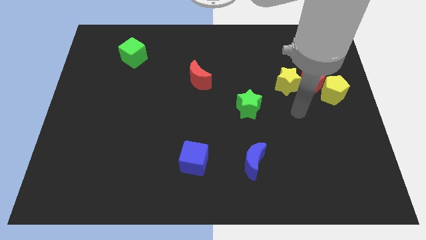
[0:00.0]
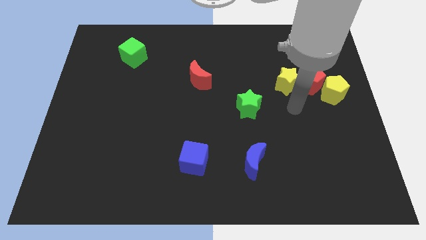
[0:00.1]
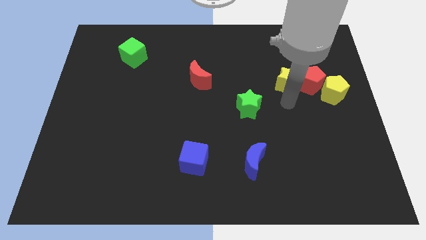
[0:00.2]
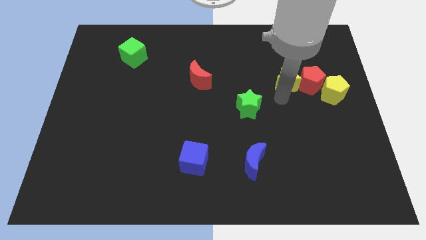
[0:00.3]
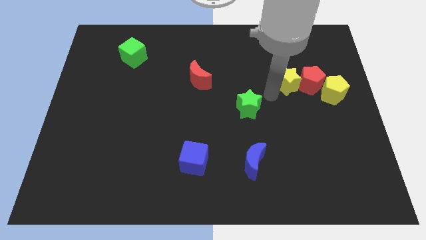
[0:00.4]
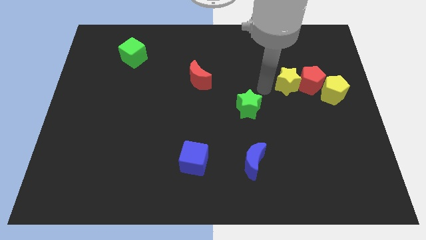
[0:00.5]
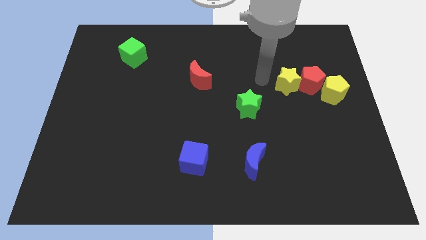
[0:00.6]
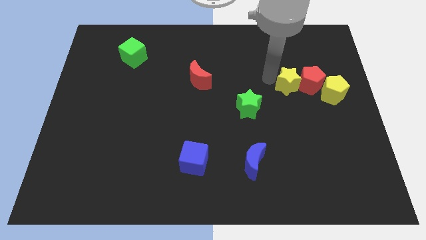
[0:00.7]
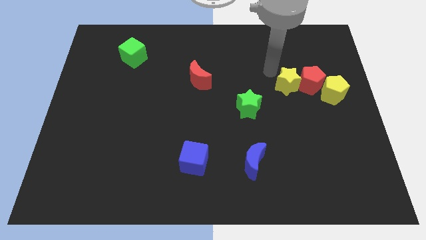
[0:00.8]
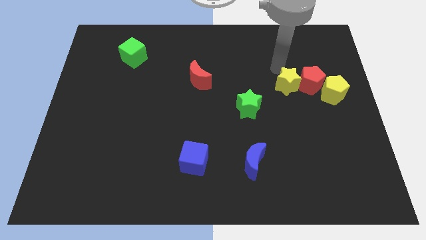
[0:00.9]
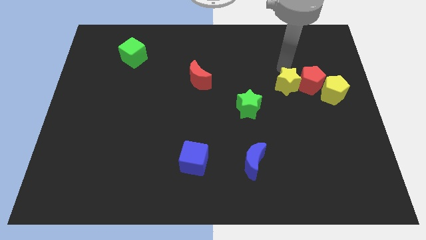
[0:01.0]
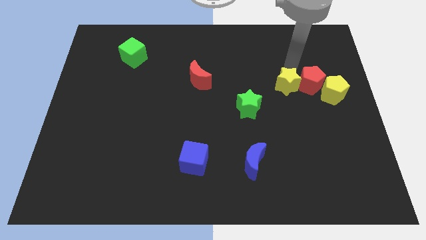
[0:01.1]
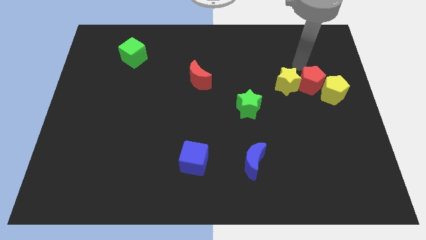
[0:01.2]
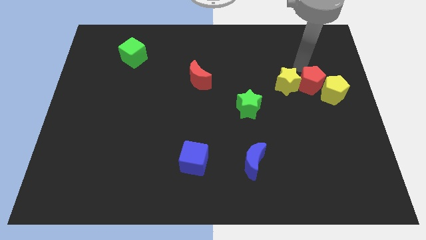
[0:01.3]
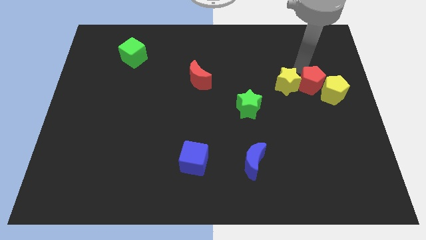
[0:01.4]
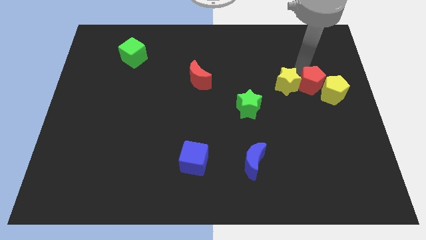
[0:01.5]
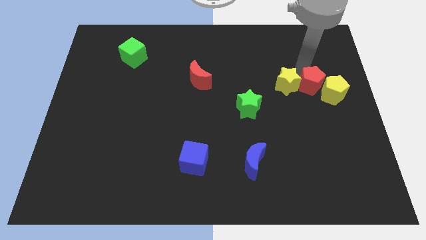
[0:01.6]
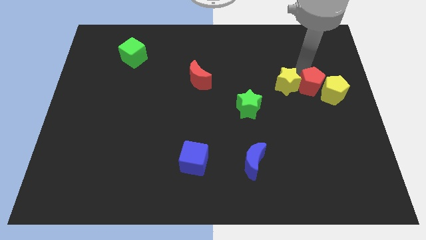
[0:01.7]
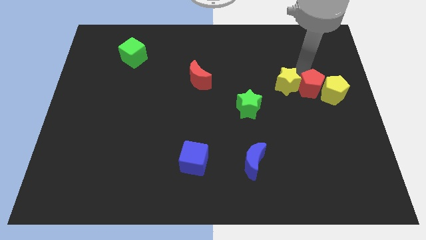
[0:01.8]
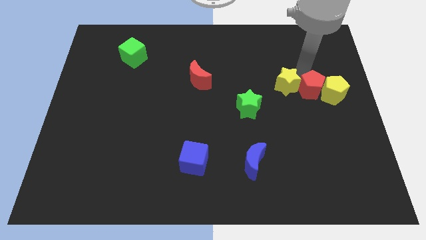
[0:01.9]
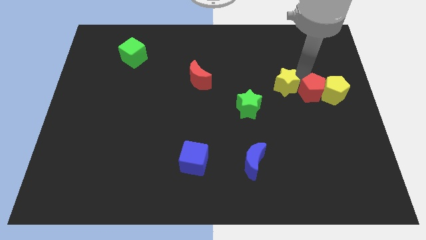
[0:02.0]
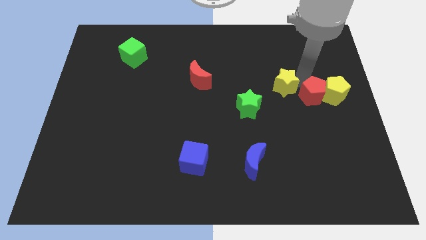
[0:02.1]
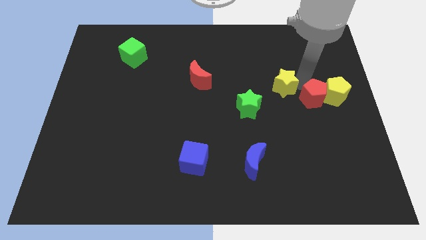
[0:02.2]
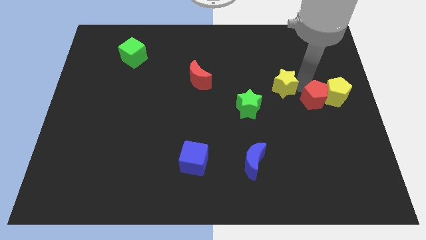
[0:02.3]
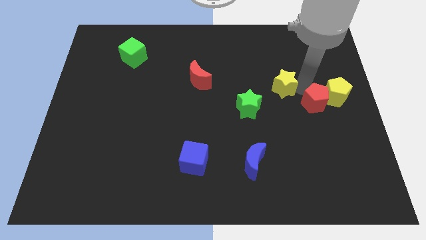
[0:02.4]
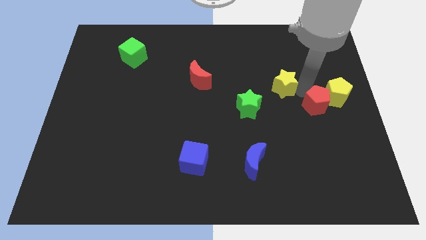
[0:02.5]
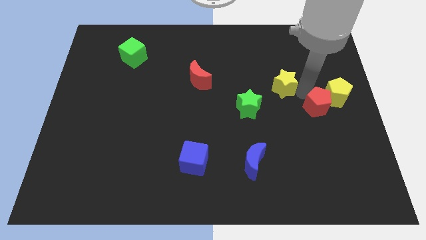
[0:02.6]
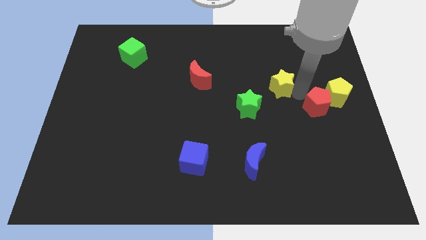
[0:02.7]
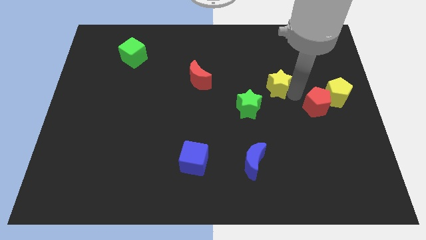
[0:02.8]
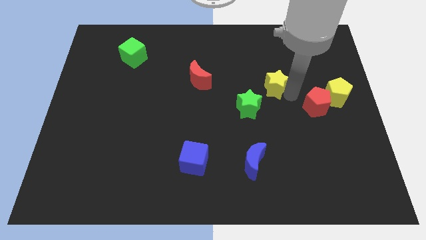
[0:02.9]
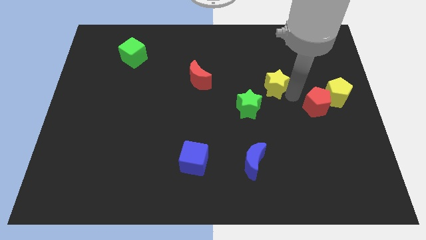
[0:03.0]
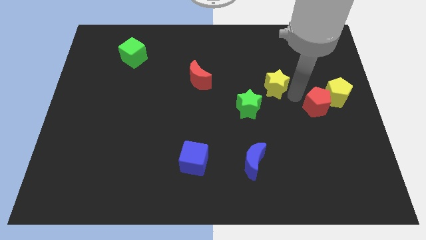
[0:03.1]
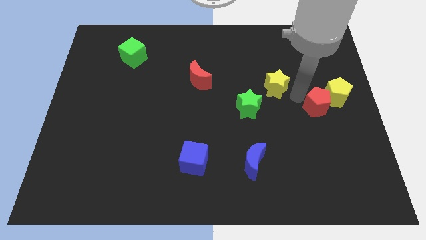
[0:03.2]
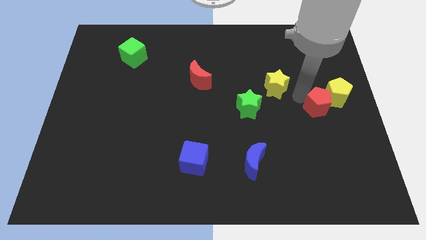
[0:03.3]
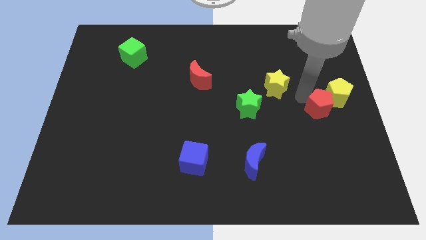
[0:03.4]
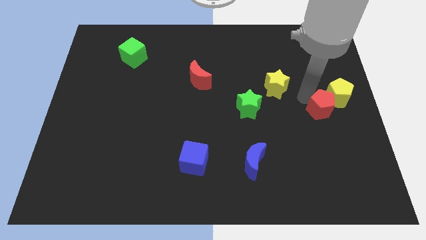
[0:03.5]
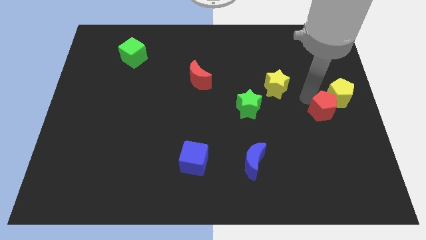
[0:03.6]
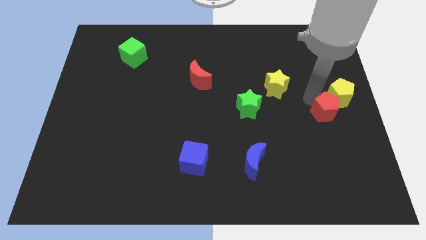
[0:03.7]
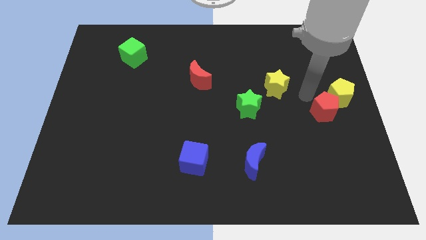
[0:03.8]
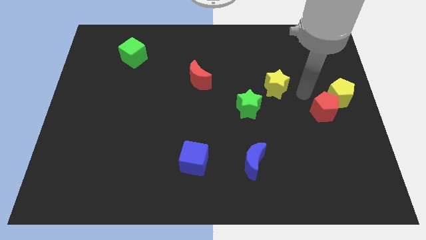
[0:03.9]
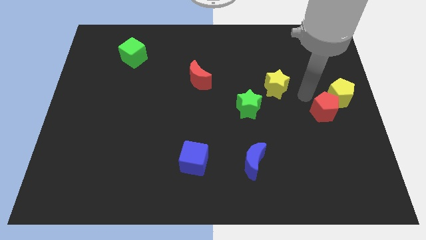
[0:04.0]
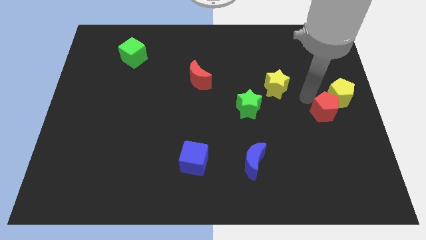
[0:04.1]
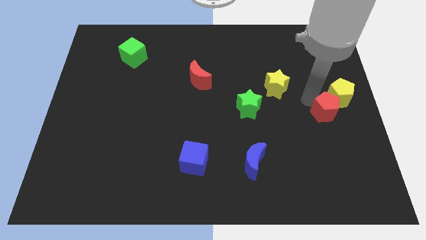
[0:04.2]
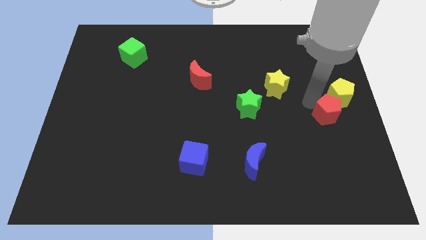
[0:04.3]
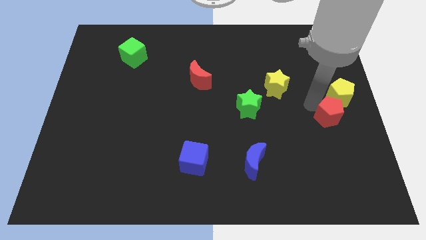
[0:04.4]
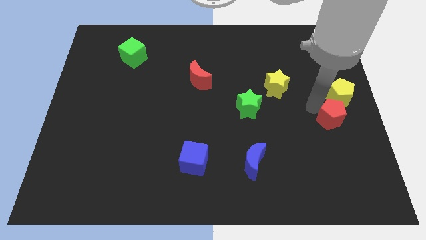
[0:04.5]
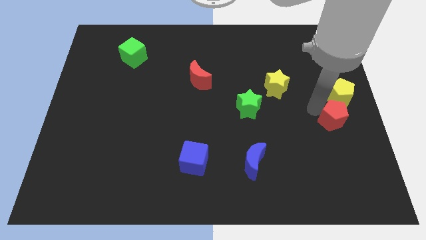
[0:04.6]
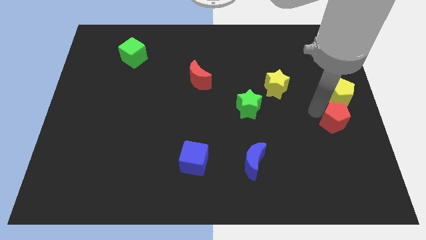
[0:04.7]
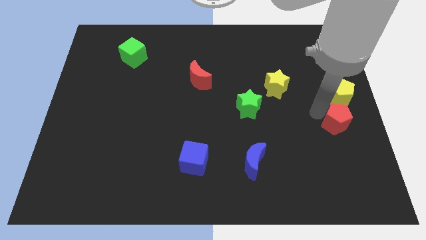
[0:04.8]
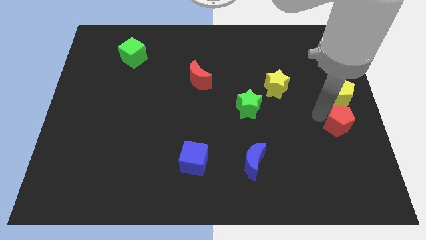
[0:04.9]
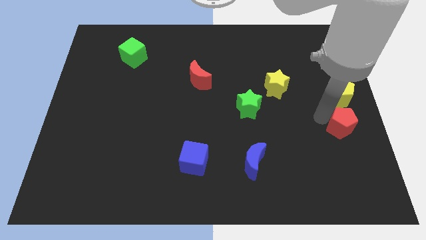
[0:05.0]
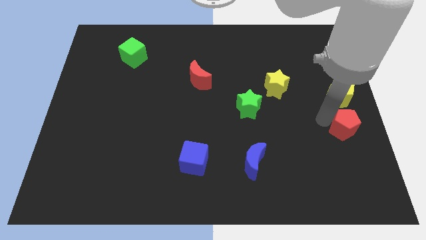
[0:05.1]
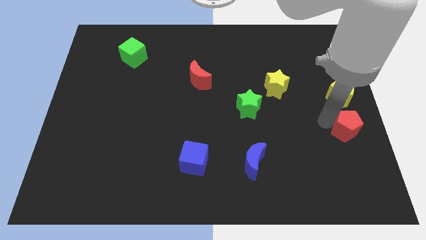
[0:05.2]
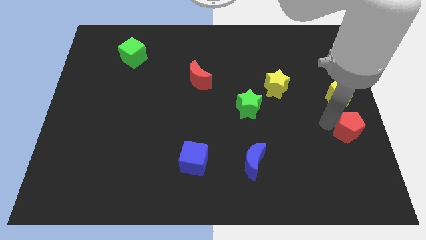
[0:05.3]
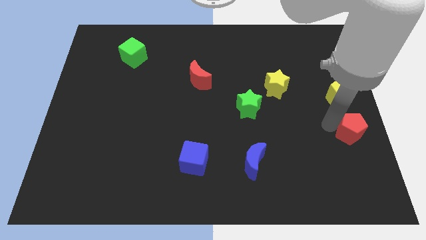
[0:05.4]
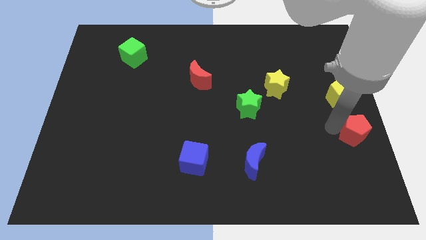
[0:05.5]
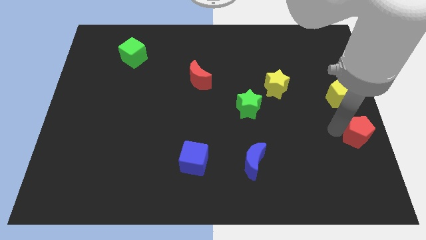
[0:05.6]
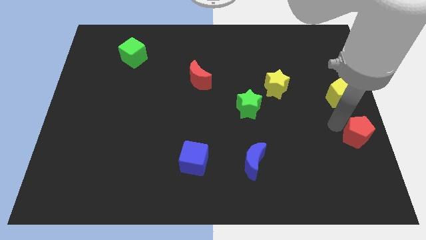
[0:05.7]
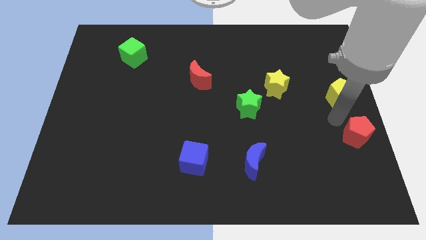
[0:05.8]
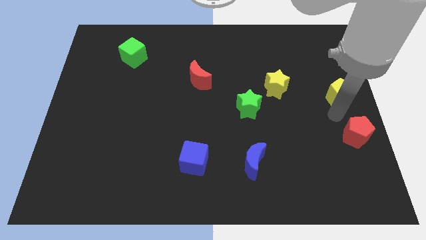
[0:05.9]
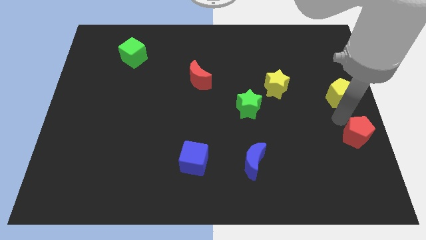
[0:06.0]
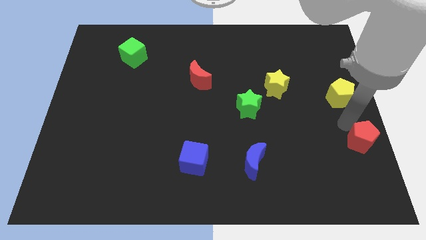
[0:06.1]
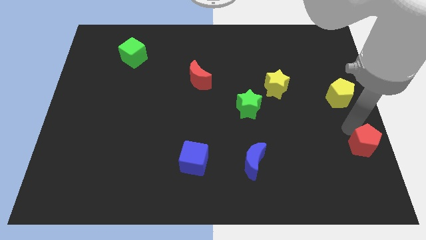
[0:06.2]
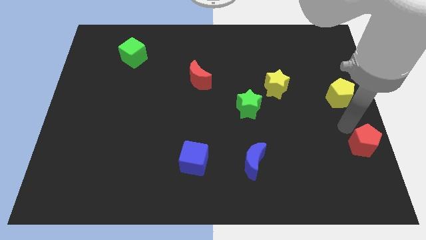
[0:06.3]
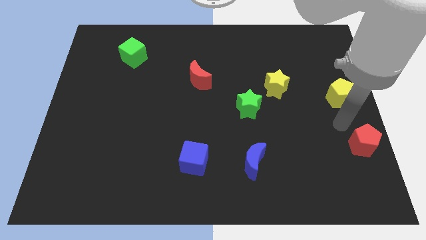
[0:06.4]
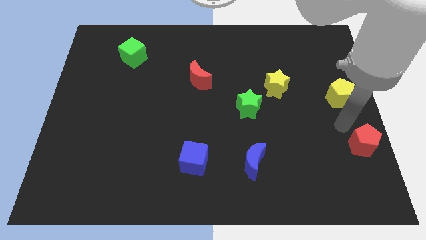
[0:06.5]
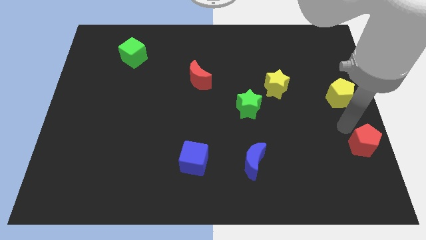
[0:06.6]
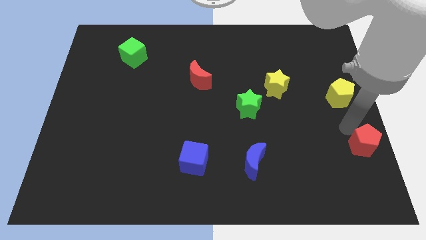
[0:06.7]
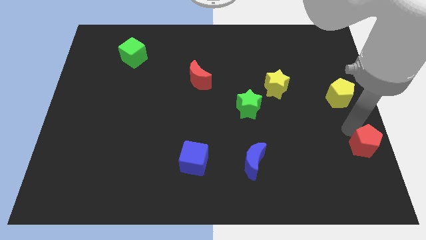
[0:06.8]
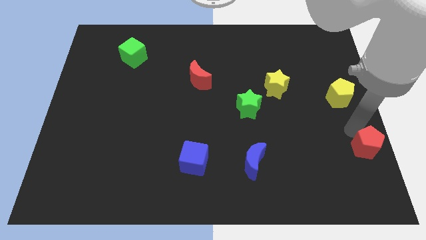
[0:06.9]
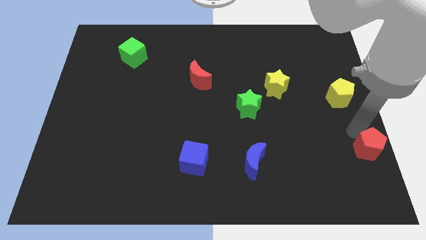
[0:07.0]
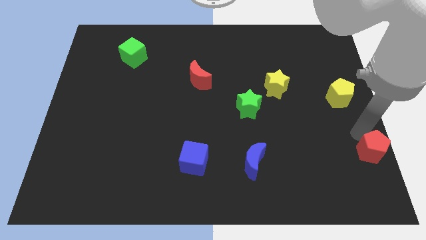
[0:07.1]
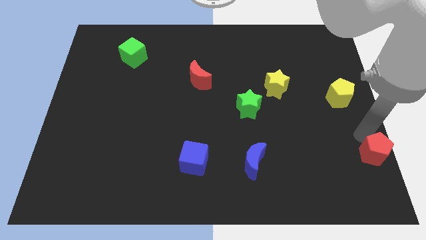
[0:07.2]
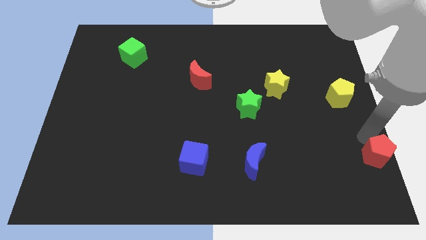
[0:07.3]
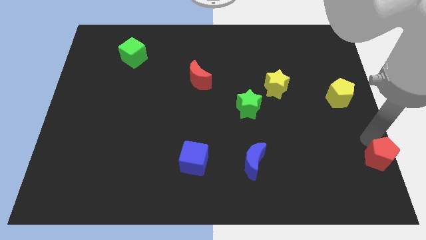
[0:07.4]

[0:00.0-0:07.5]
slide the red pentagon to the bottom right corner

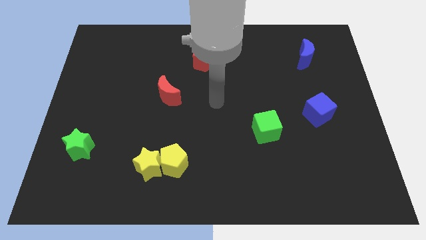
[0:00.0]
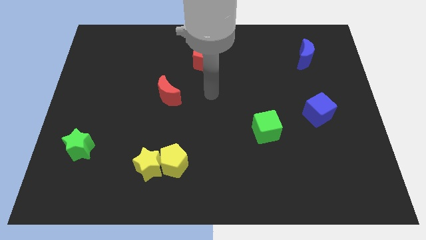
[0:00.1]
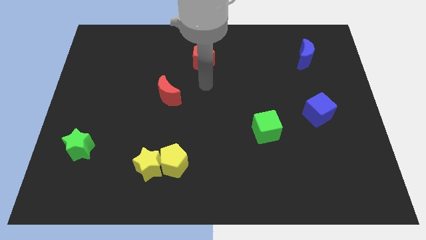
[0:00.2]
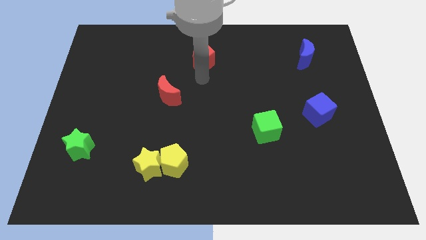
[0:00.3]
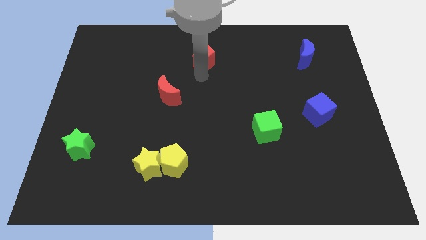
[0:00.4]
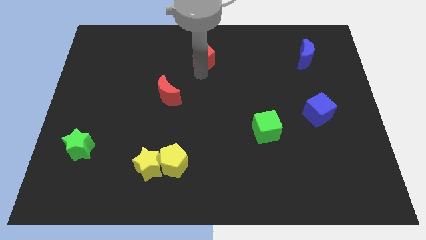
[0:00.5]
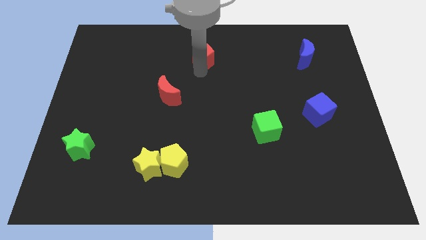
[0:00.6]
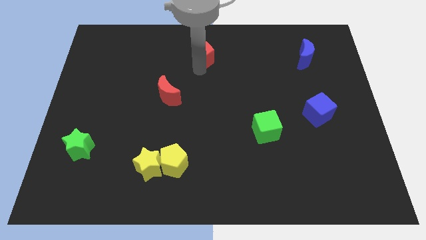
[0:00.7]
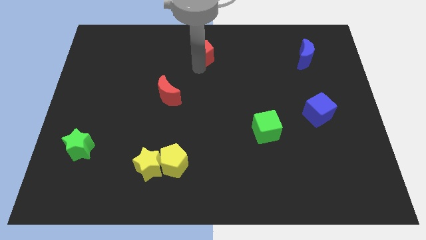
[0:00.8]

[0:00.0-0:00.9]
slide the red pentagon to the towards your base

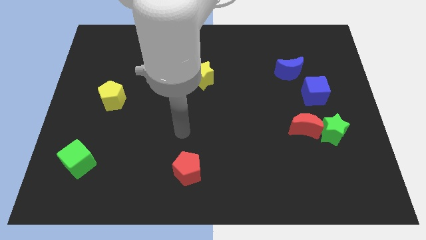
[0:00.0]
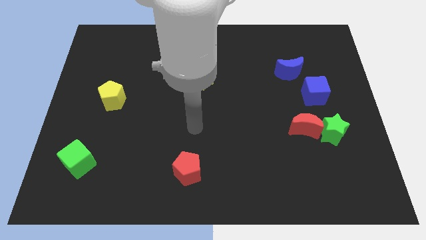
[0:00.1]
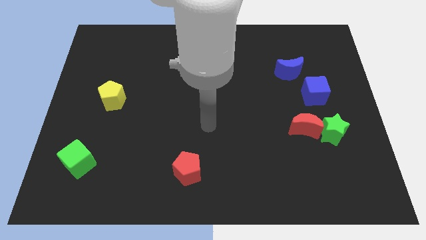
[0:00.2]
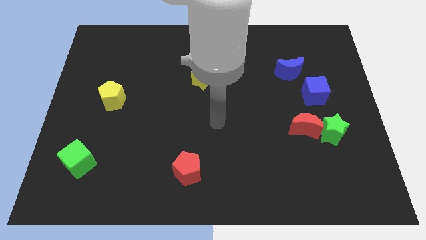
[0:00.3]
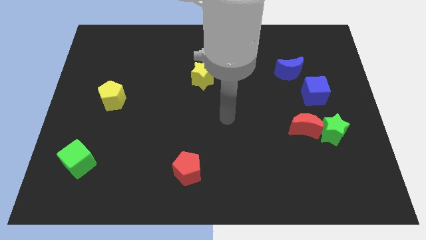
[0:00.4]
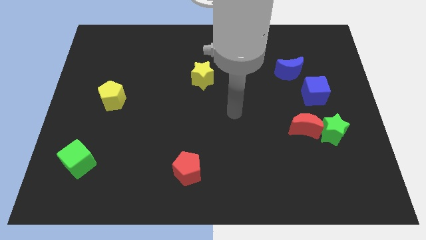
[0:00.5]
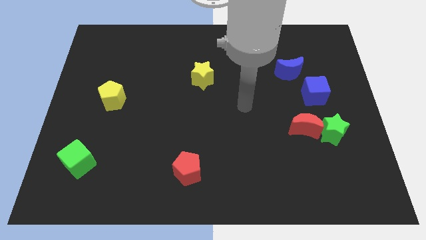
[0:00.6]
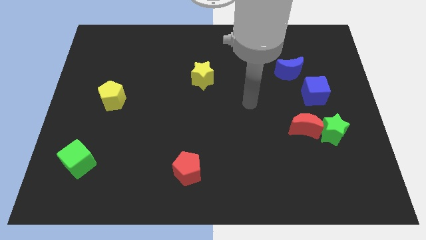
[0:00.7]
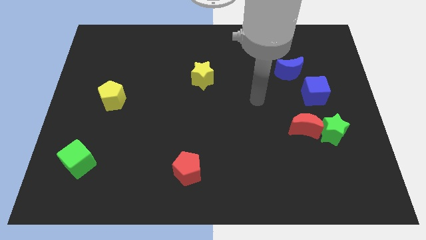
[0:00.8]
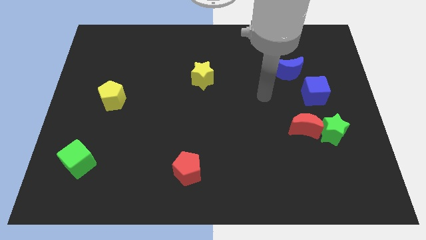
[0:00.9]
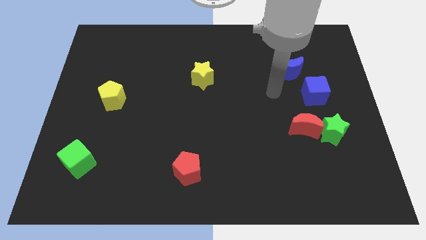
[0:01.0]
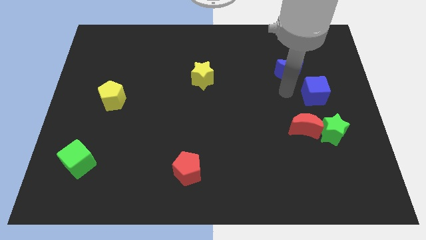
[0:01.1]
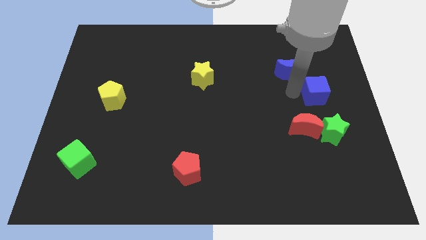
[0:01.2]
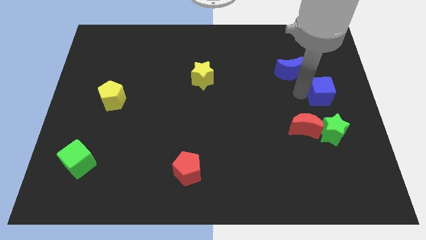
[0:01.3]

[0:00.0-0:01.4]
slide the blue cube to the right side of the board
